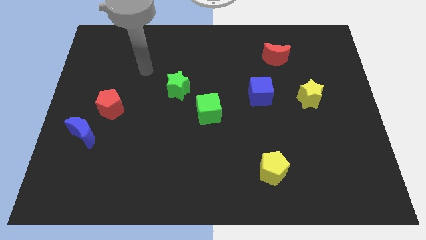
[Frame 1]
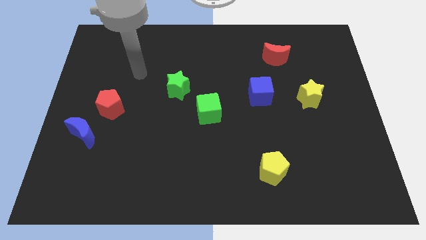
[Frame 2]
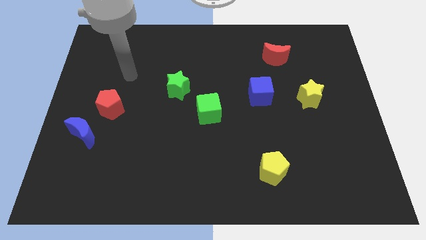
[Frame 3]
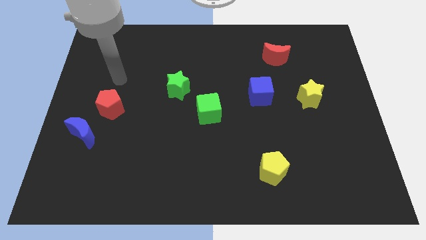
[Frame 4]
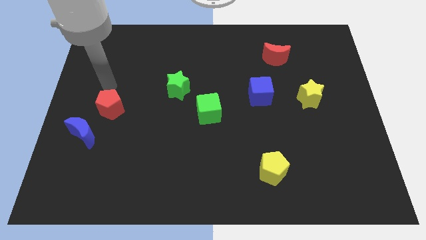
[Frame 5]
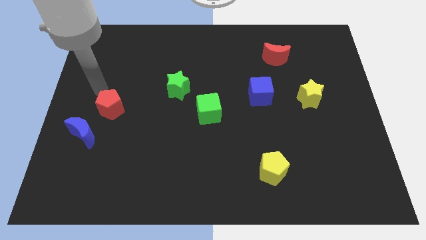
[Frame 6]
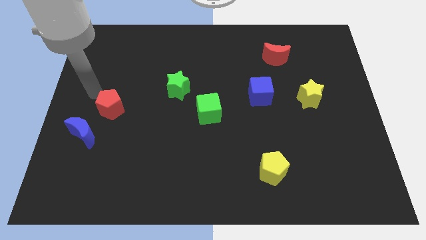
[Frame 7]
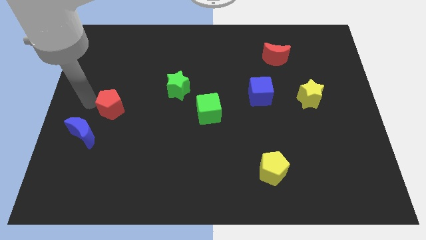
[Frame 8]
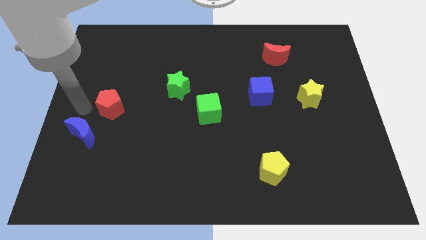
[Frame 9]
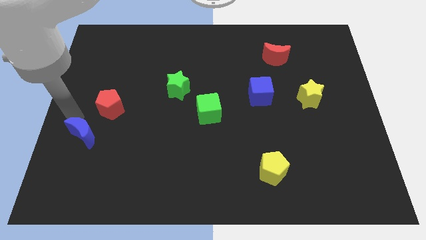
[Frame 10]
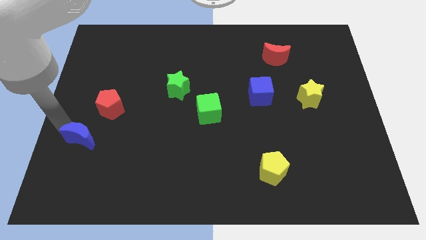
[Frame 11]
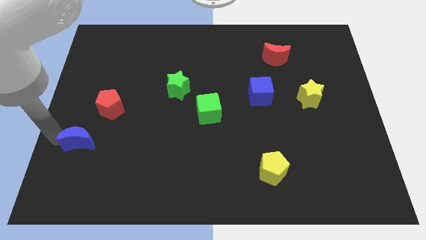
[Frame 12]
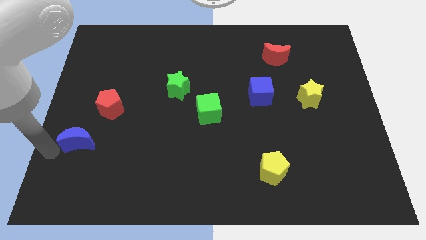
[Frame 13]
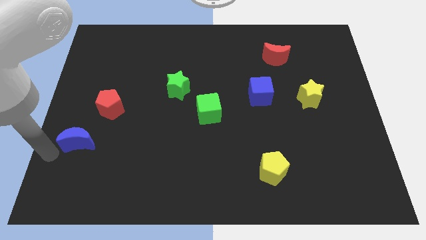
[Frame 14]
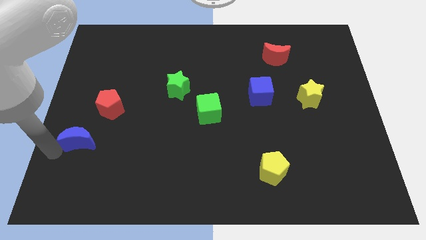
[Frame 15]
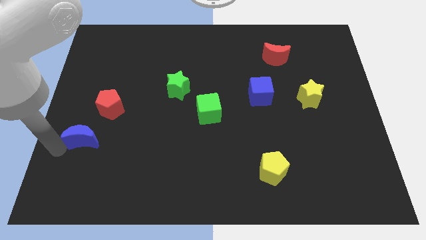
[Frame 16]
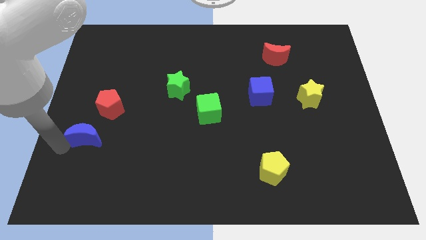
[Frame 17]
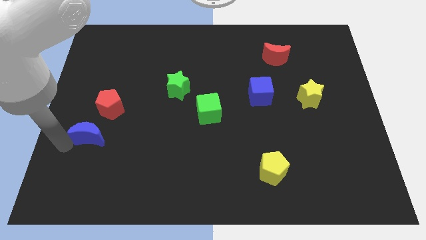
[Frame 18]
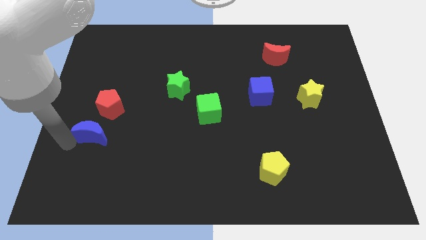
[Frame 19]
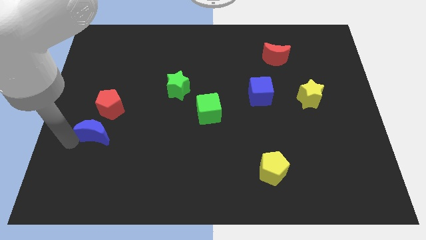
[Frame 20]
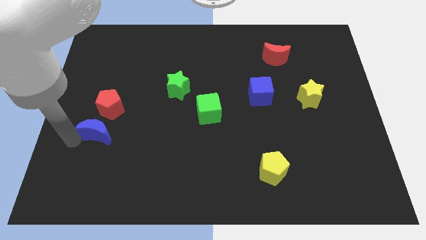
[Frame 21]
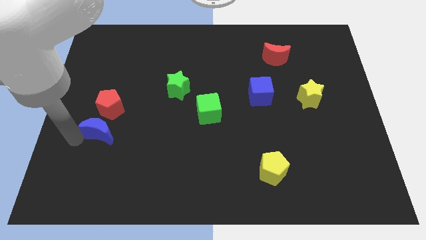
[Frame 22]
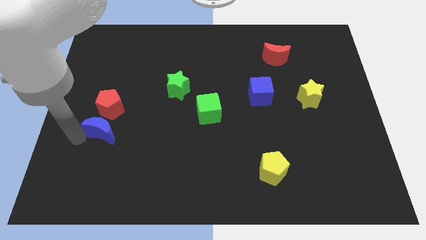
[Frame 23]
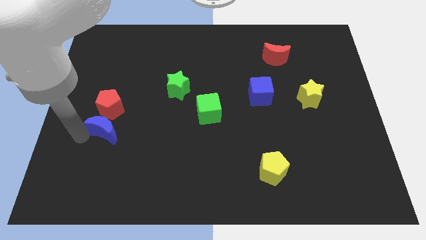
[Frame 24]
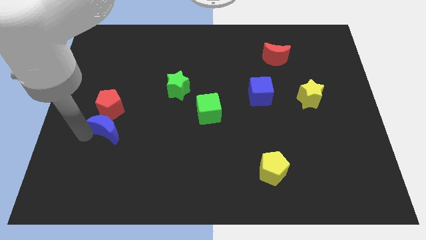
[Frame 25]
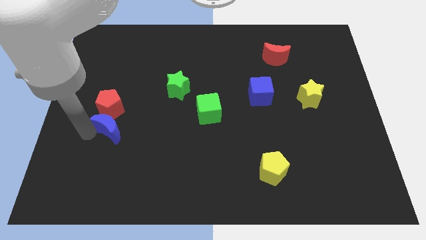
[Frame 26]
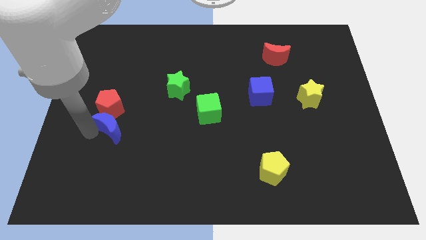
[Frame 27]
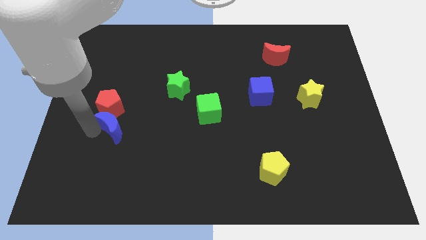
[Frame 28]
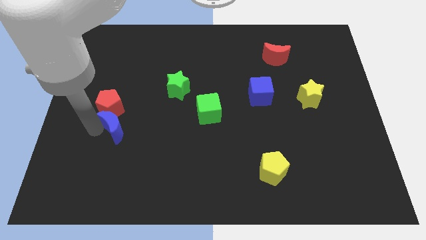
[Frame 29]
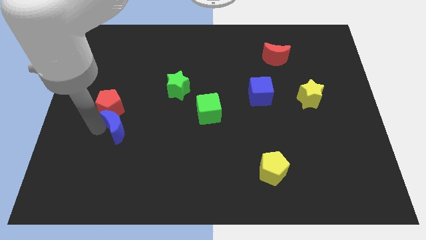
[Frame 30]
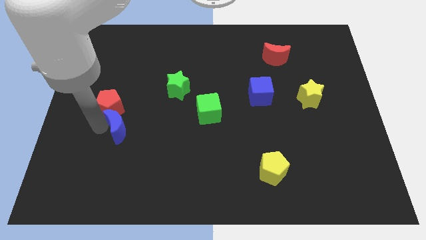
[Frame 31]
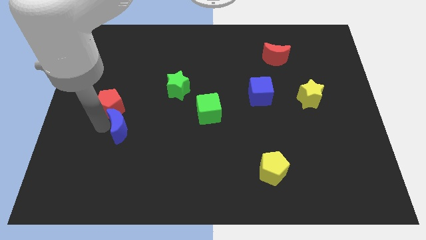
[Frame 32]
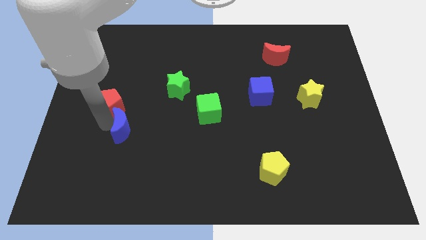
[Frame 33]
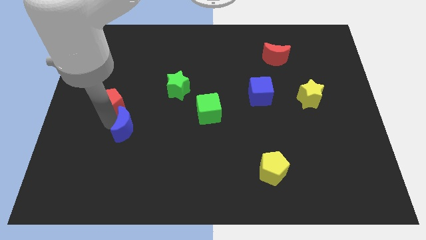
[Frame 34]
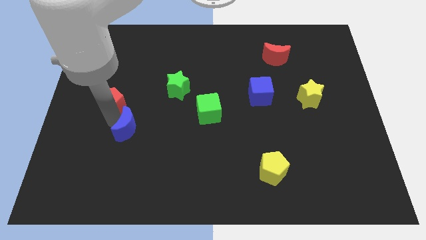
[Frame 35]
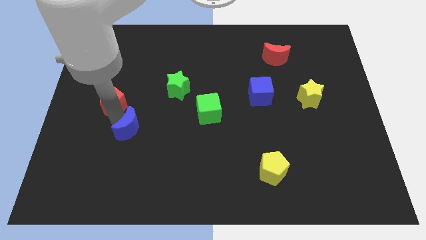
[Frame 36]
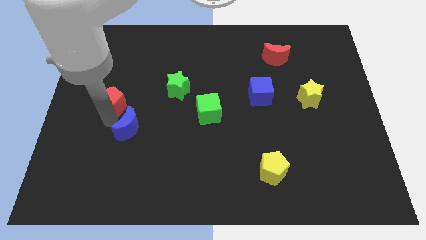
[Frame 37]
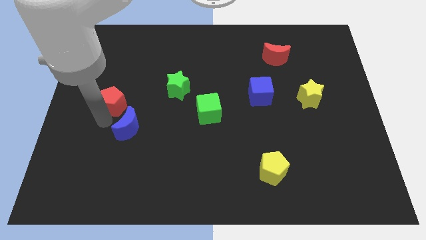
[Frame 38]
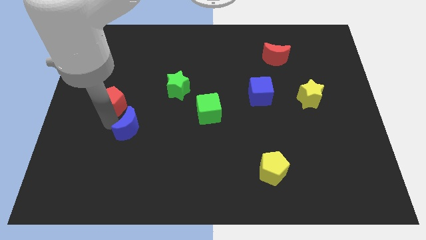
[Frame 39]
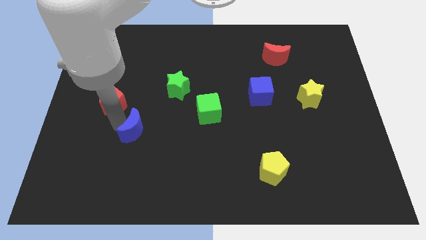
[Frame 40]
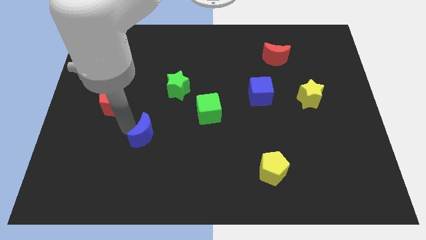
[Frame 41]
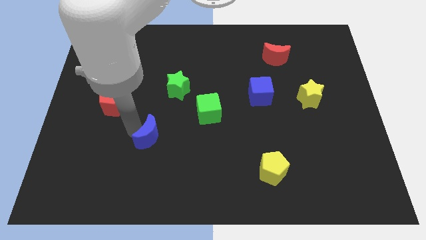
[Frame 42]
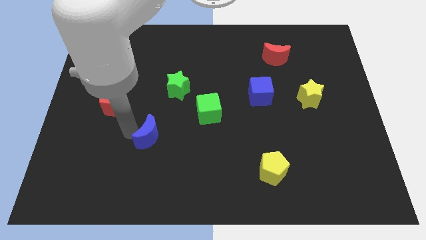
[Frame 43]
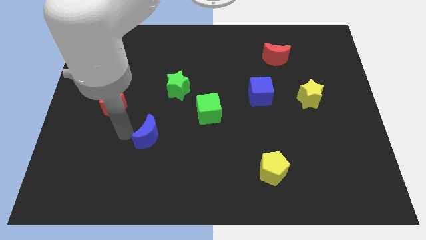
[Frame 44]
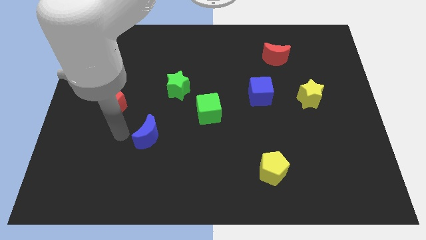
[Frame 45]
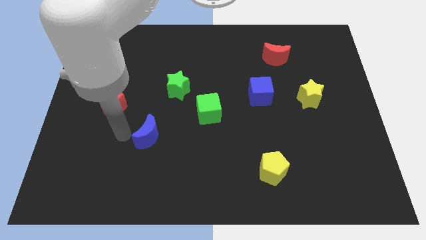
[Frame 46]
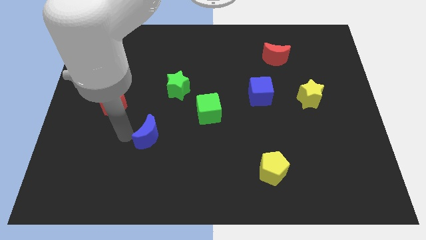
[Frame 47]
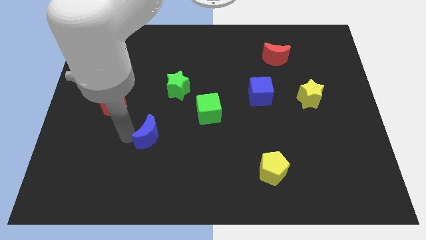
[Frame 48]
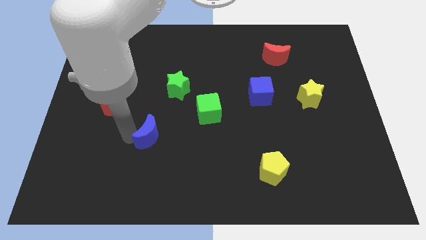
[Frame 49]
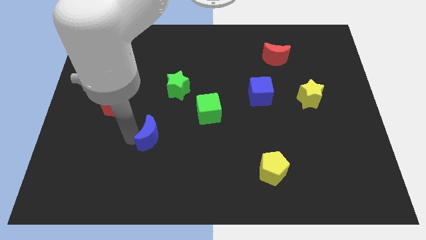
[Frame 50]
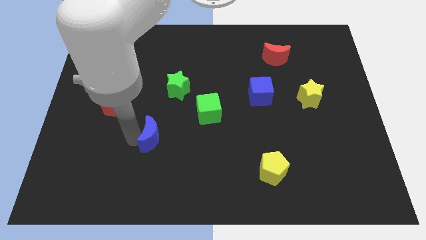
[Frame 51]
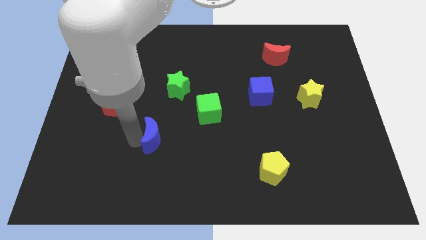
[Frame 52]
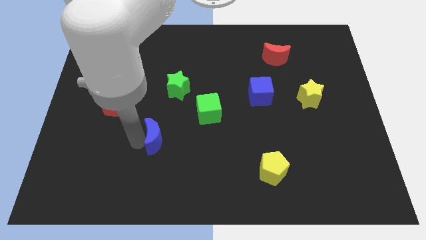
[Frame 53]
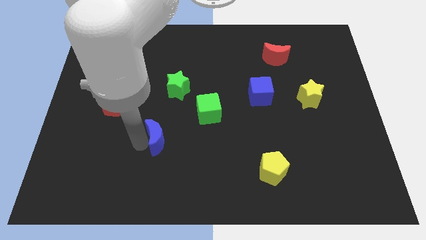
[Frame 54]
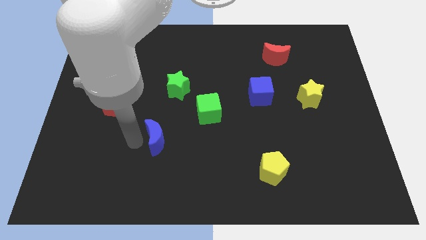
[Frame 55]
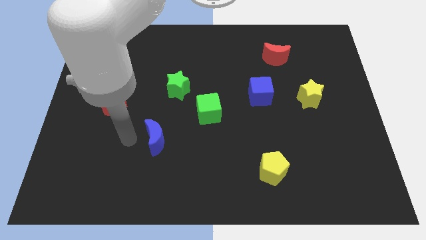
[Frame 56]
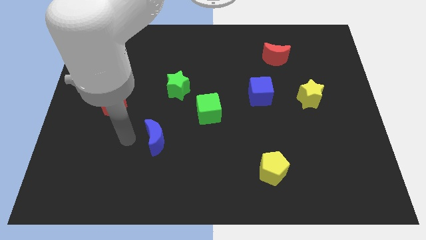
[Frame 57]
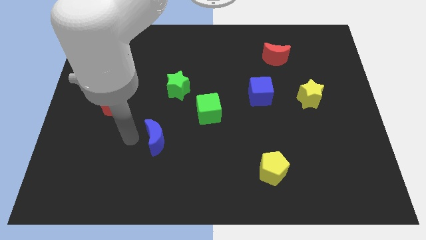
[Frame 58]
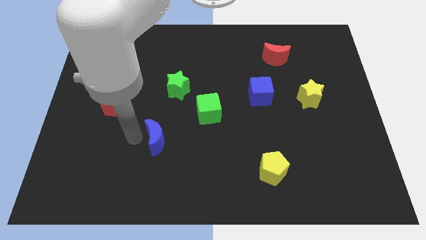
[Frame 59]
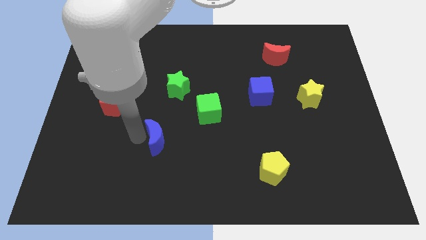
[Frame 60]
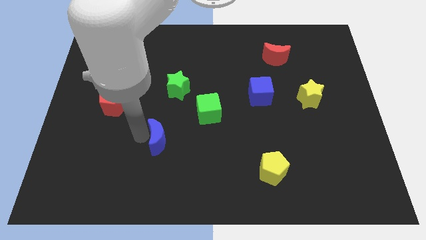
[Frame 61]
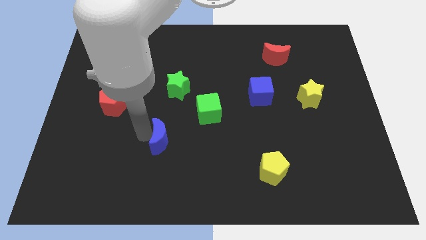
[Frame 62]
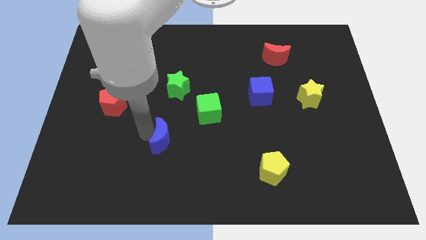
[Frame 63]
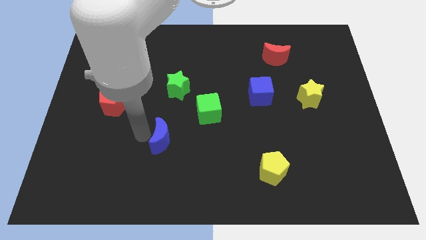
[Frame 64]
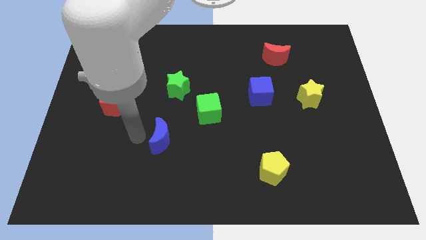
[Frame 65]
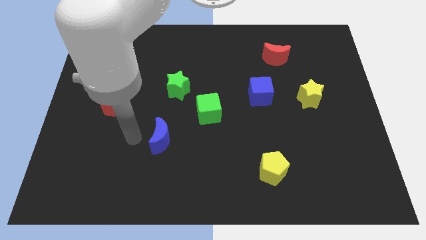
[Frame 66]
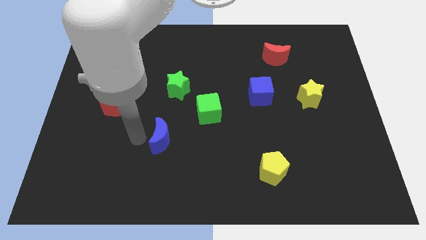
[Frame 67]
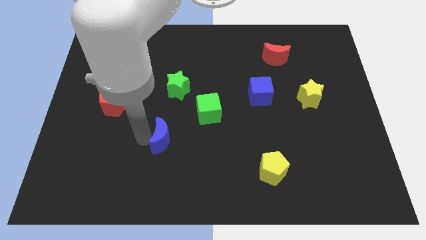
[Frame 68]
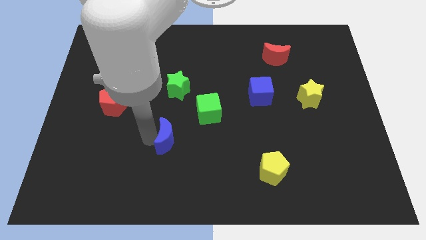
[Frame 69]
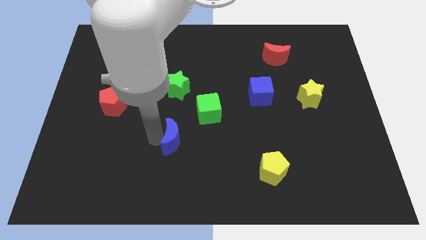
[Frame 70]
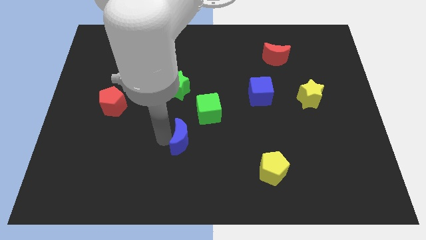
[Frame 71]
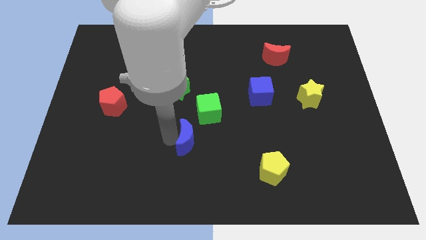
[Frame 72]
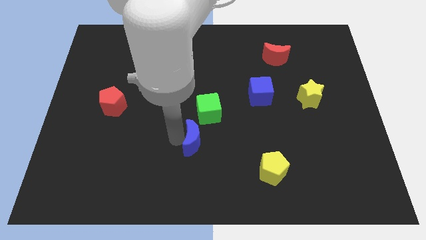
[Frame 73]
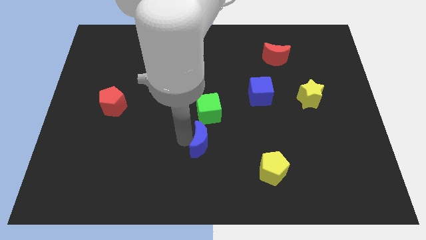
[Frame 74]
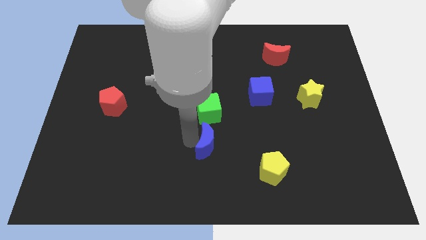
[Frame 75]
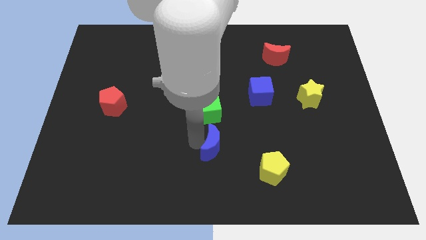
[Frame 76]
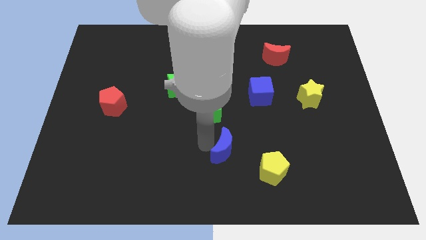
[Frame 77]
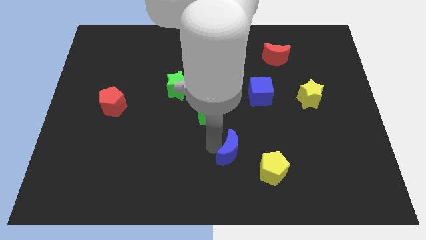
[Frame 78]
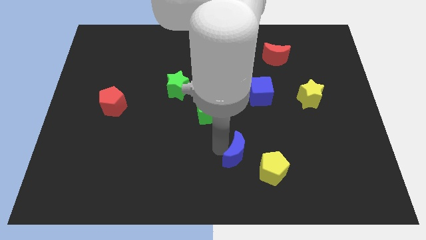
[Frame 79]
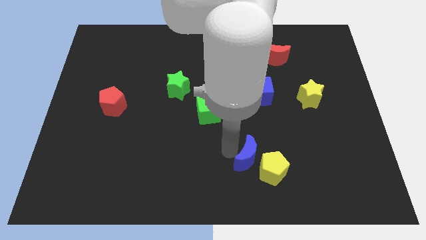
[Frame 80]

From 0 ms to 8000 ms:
move the blue moon next to the yellow pentagon

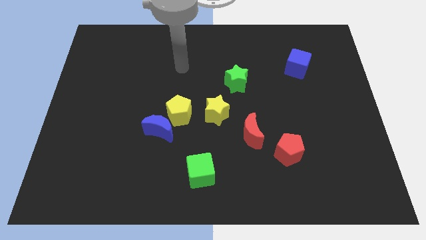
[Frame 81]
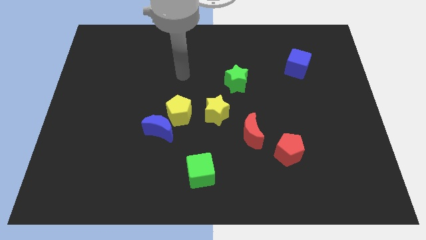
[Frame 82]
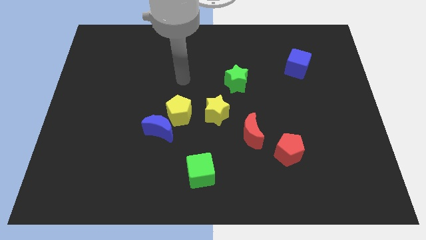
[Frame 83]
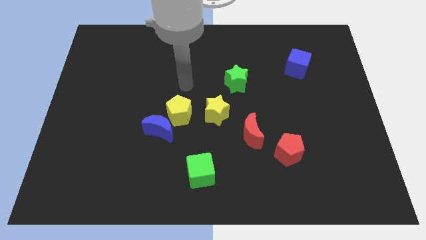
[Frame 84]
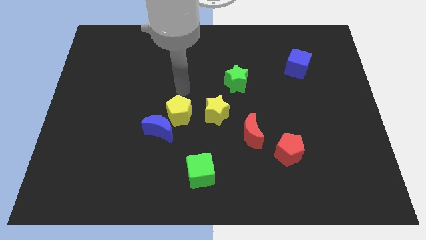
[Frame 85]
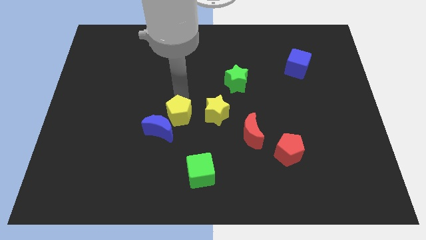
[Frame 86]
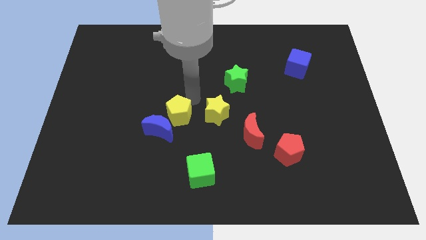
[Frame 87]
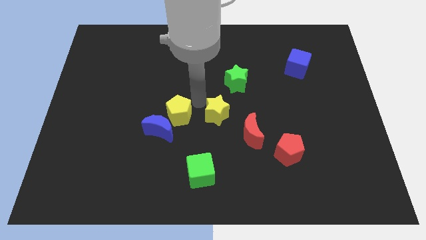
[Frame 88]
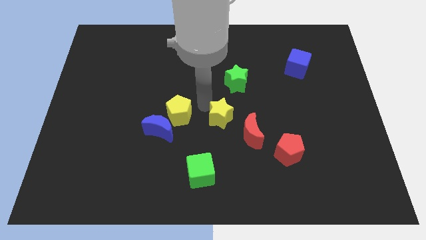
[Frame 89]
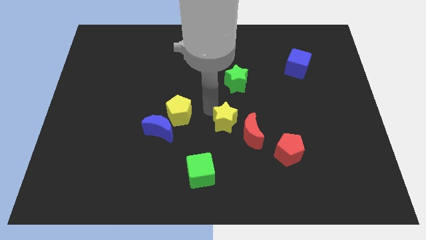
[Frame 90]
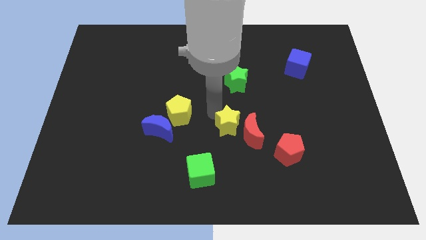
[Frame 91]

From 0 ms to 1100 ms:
slide the yellow star towards the red moon
